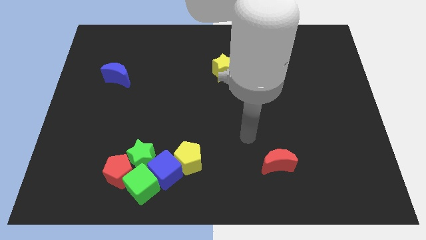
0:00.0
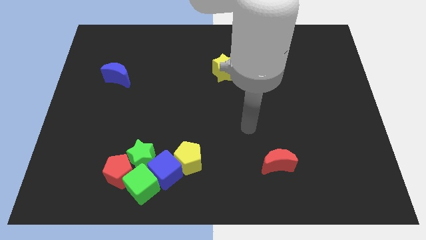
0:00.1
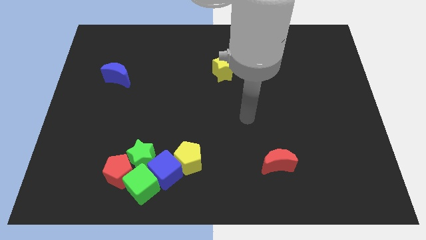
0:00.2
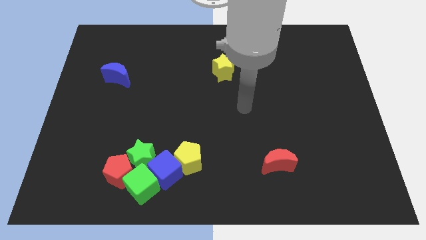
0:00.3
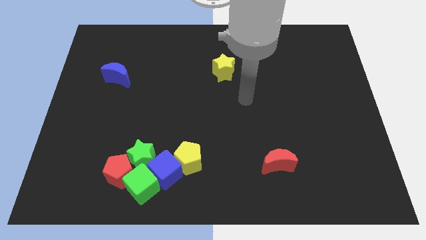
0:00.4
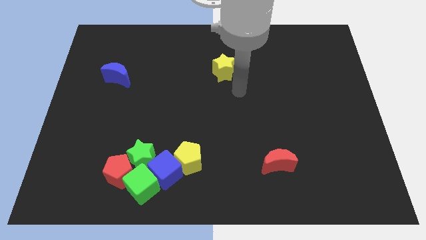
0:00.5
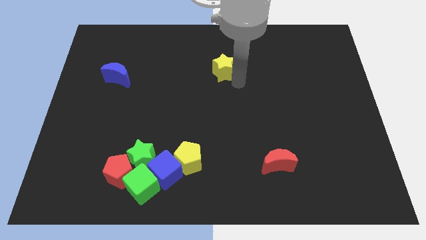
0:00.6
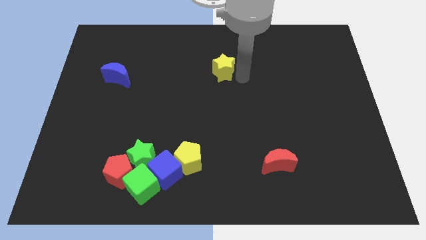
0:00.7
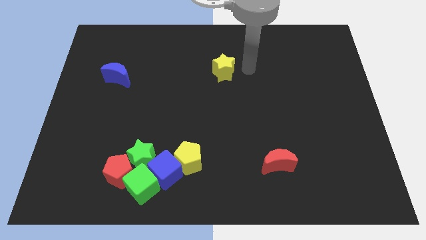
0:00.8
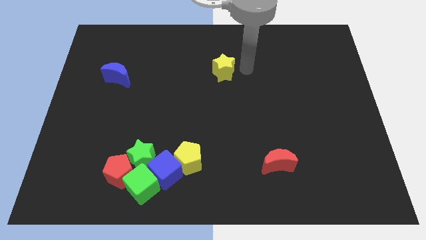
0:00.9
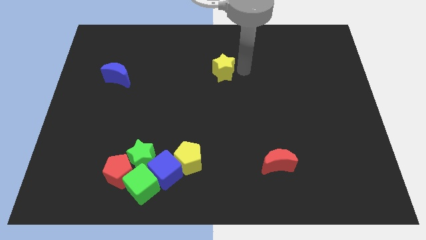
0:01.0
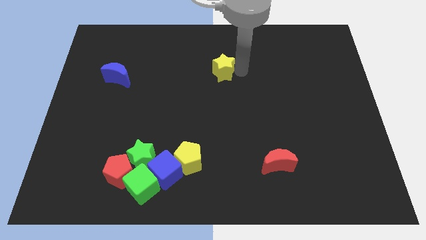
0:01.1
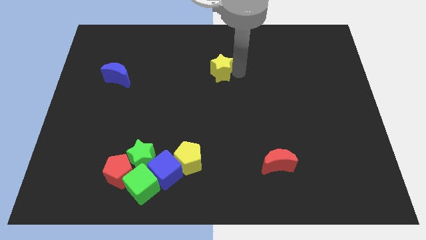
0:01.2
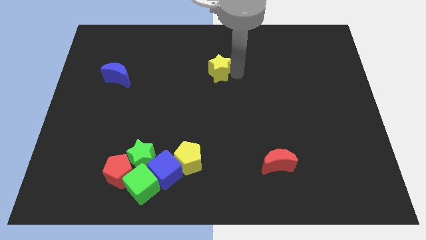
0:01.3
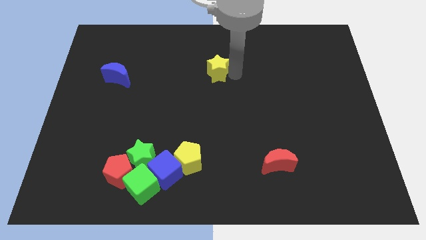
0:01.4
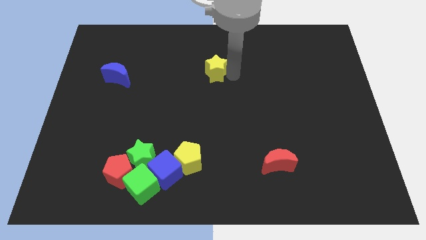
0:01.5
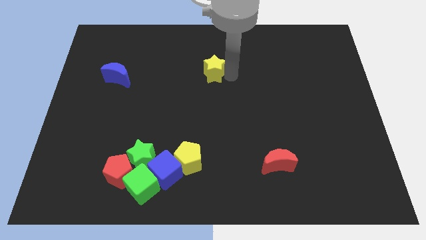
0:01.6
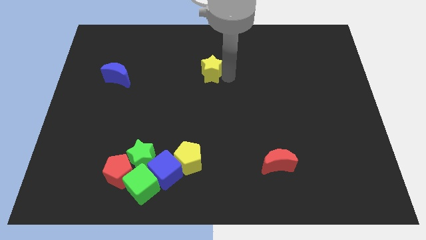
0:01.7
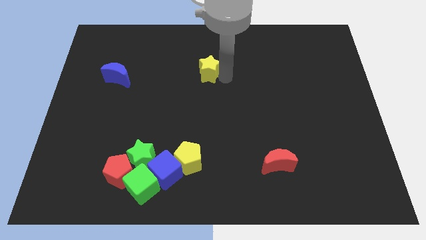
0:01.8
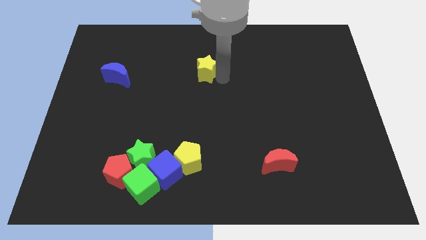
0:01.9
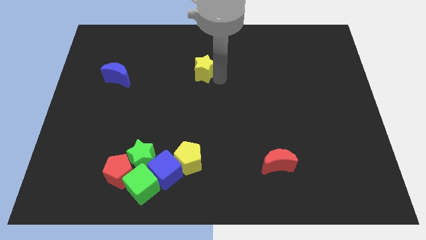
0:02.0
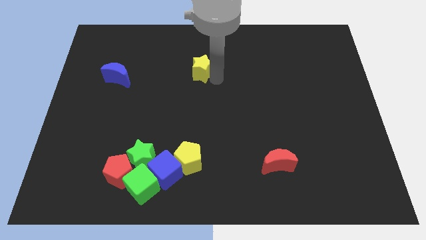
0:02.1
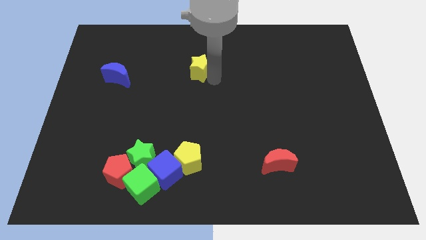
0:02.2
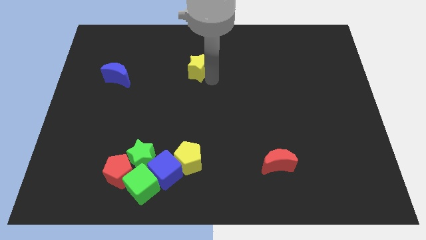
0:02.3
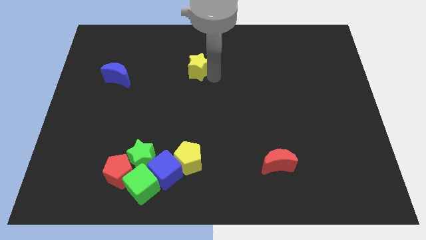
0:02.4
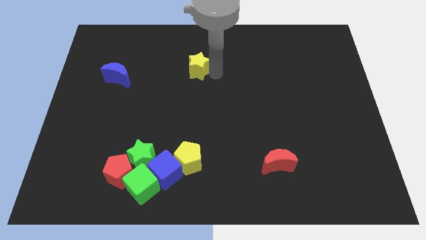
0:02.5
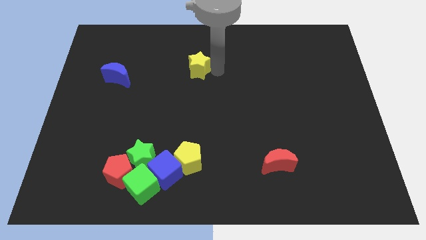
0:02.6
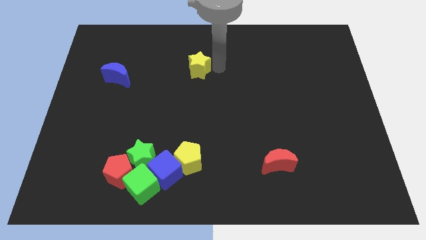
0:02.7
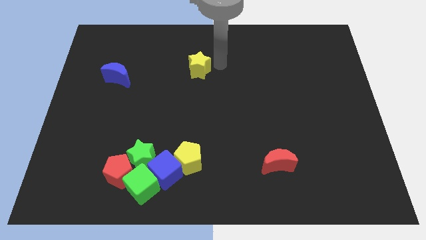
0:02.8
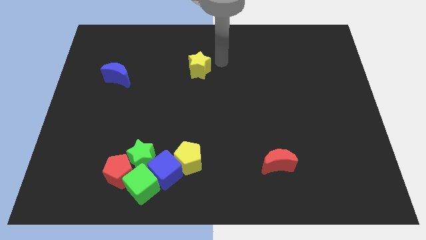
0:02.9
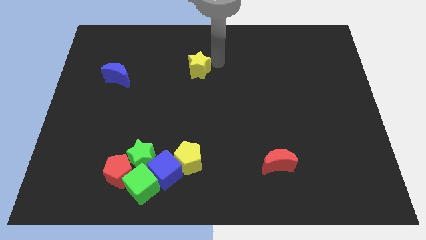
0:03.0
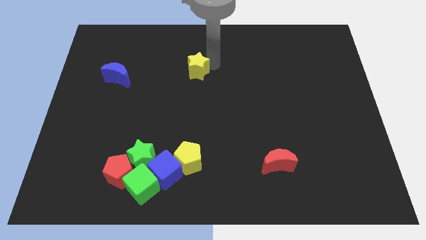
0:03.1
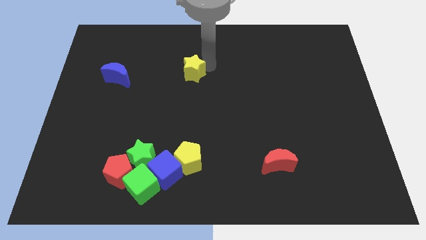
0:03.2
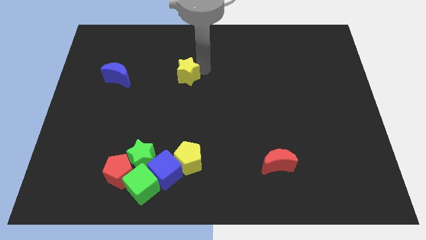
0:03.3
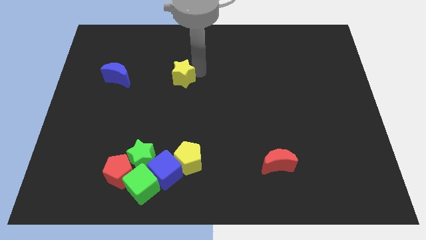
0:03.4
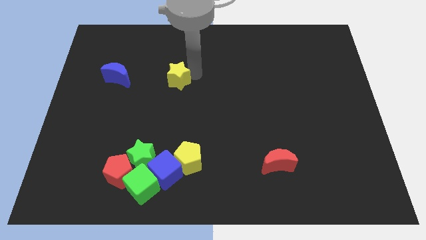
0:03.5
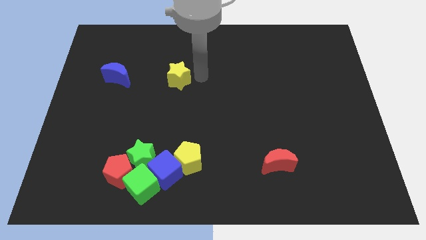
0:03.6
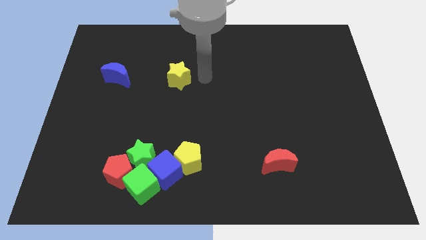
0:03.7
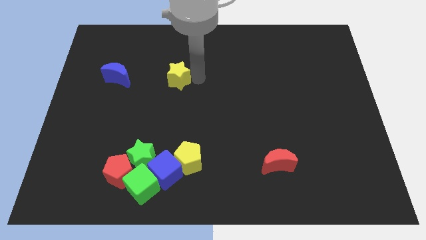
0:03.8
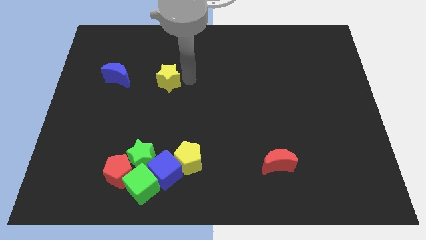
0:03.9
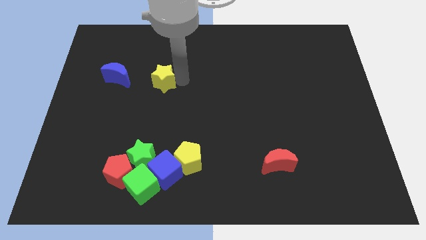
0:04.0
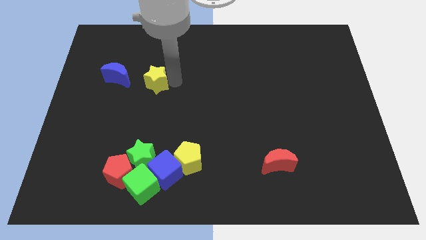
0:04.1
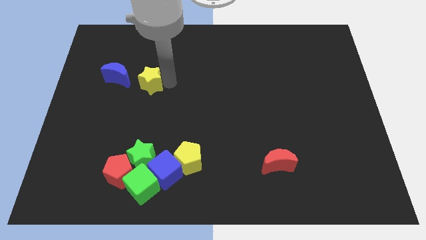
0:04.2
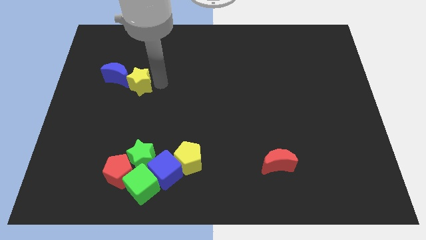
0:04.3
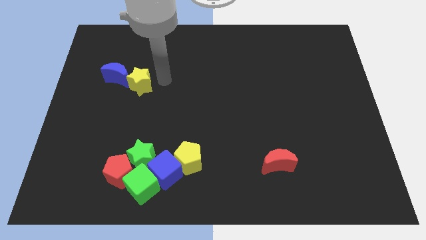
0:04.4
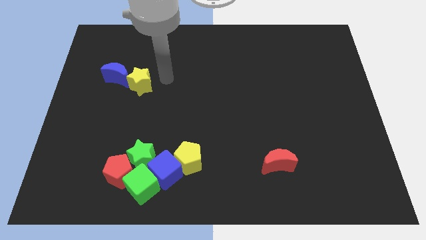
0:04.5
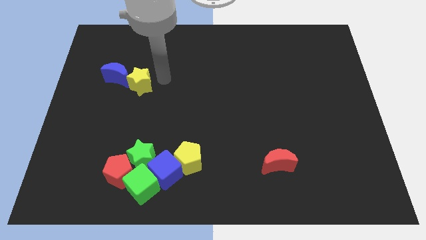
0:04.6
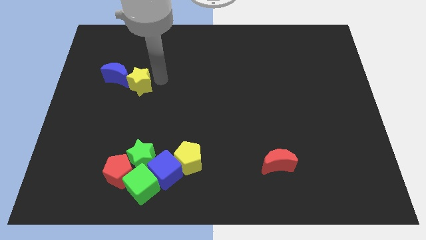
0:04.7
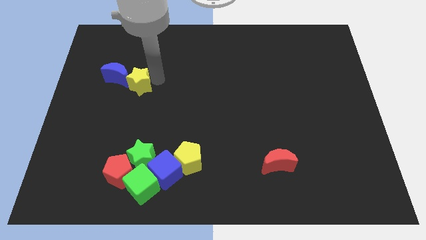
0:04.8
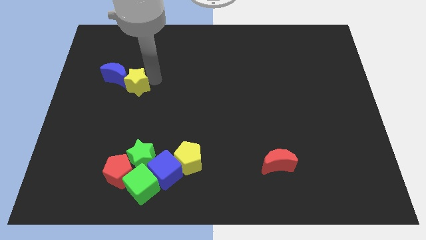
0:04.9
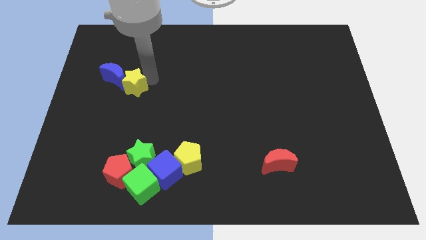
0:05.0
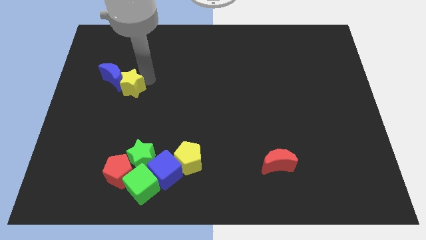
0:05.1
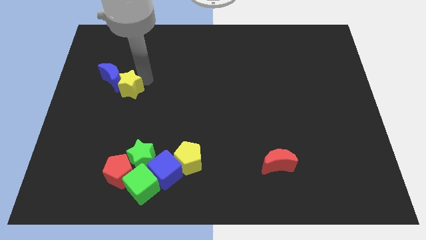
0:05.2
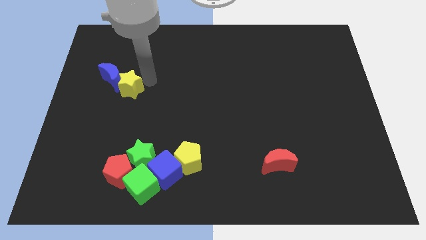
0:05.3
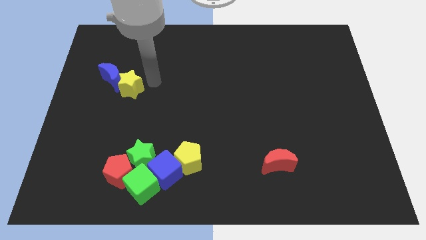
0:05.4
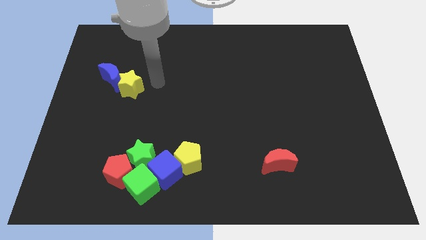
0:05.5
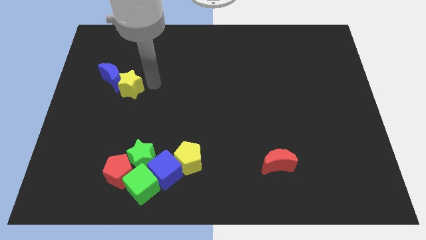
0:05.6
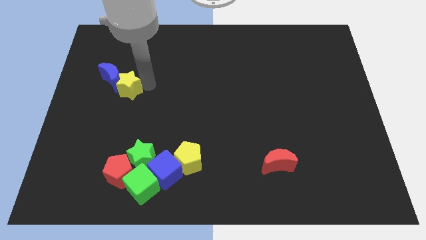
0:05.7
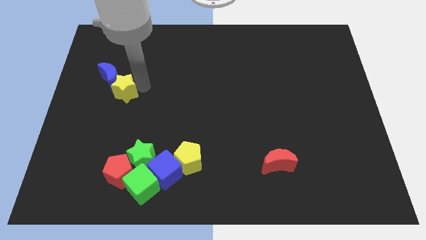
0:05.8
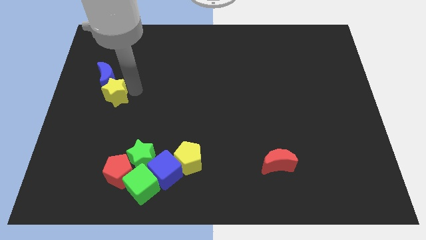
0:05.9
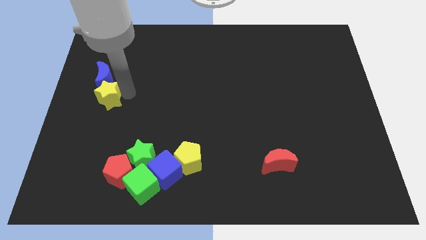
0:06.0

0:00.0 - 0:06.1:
slide the yellow star to the center left
